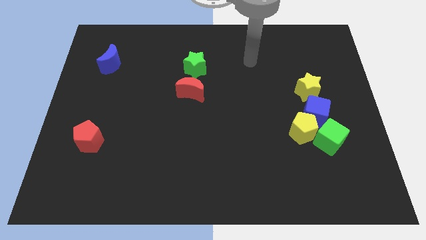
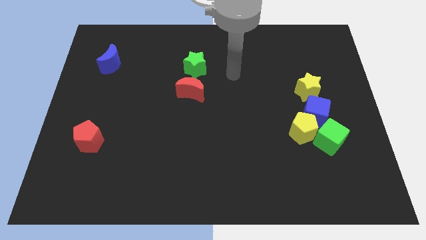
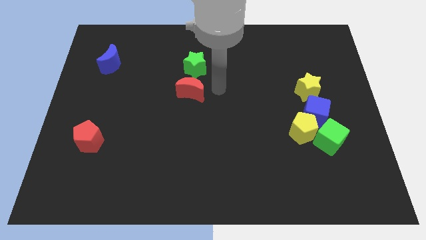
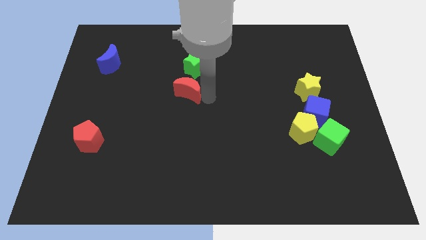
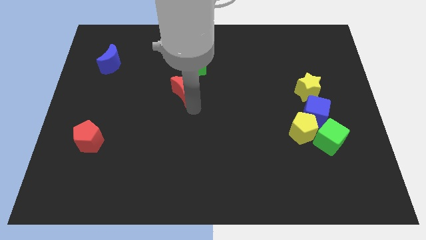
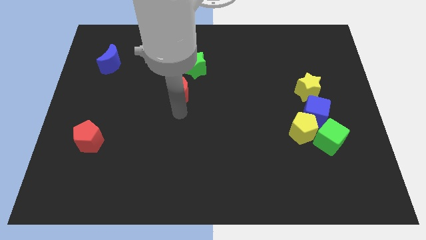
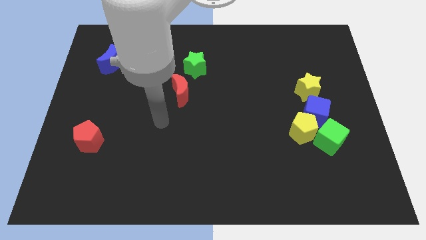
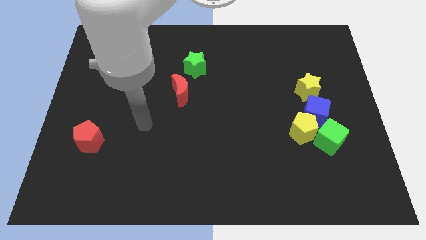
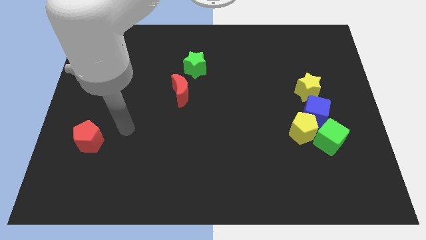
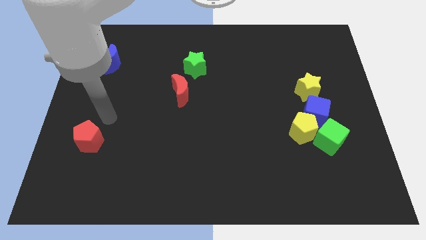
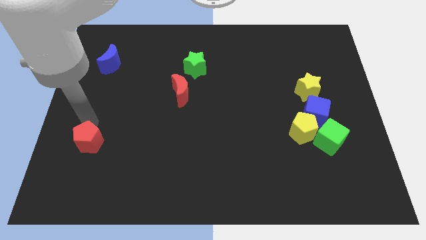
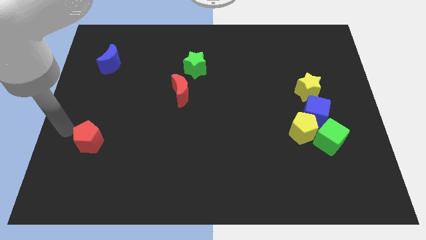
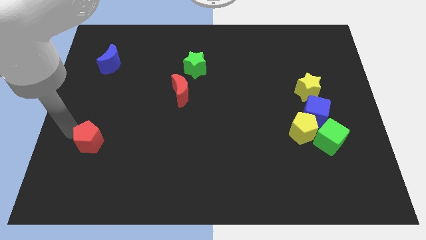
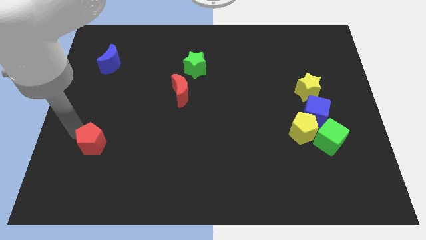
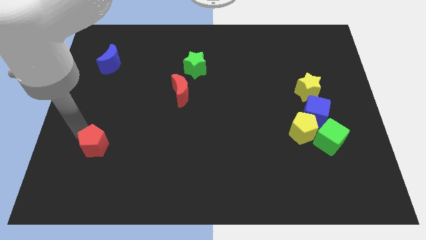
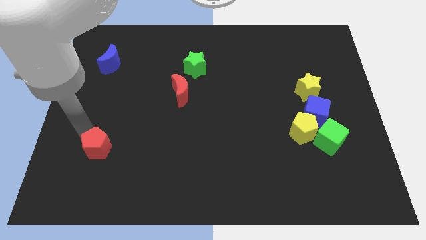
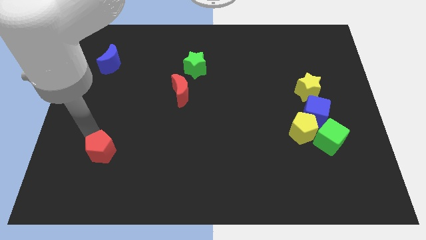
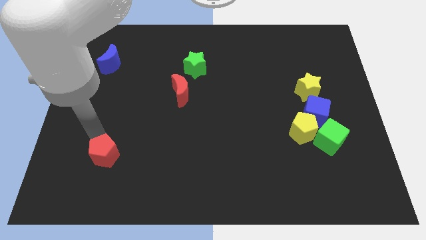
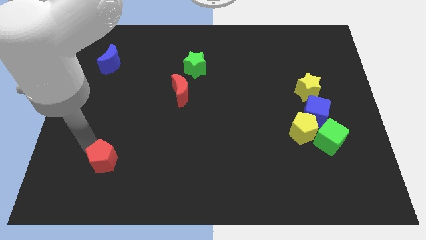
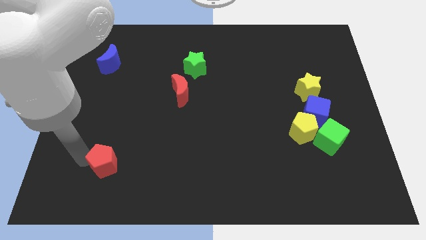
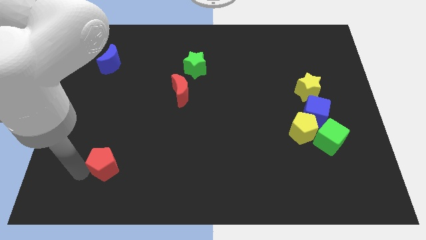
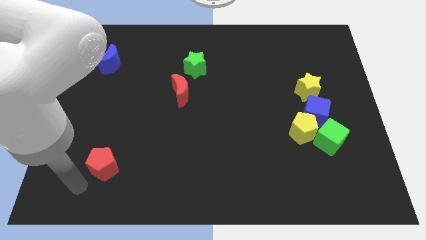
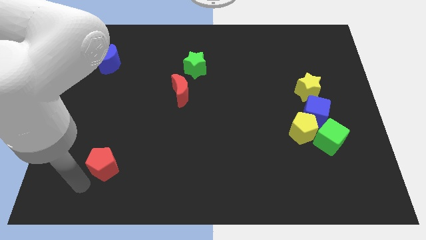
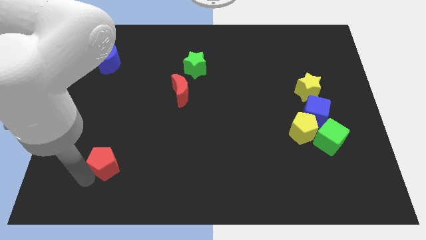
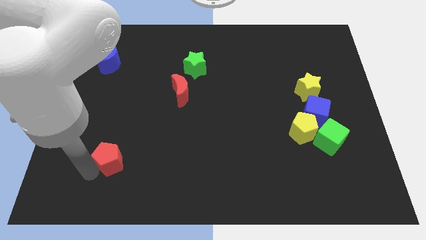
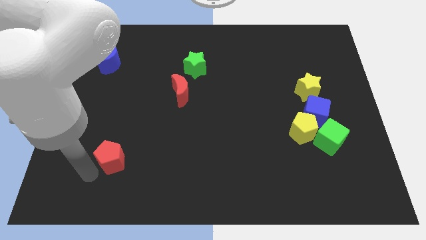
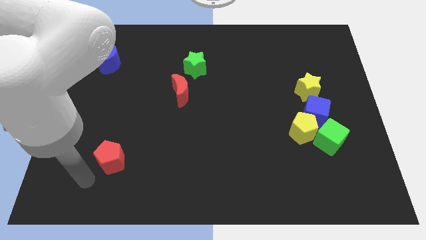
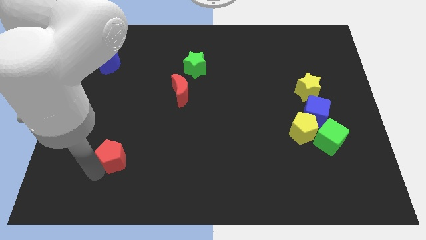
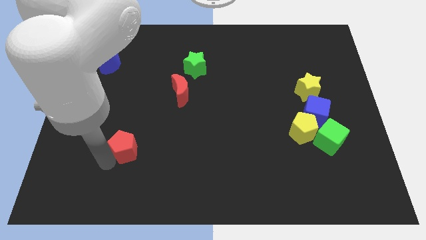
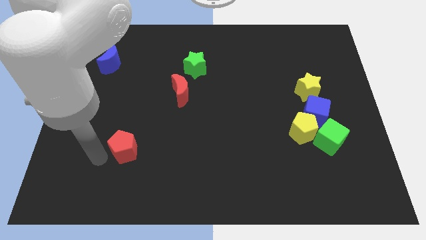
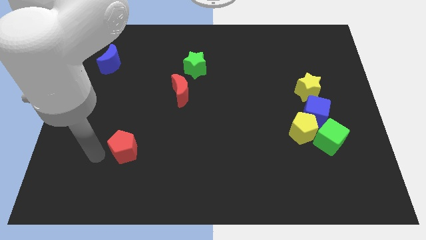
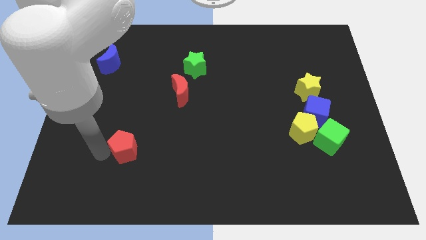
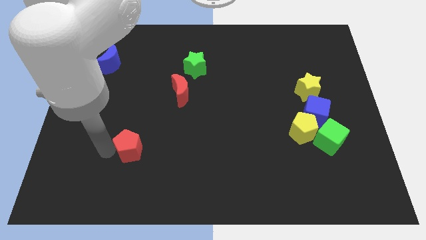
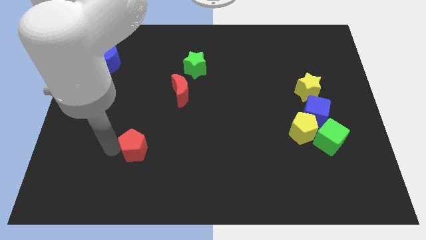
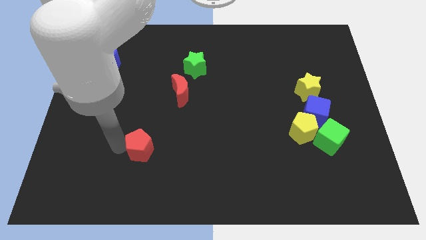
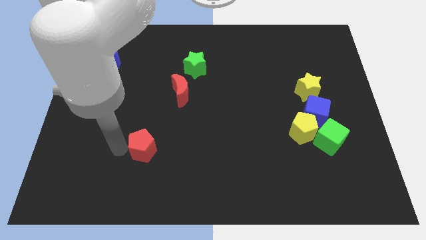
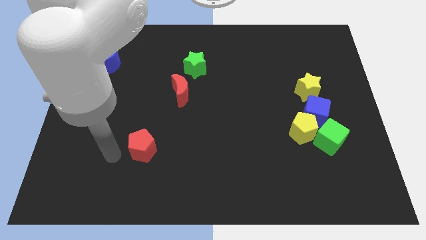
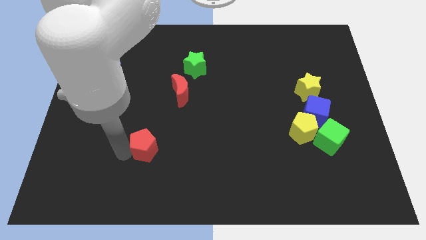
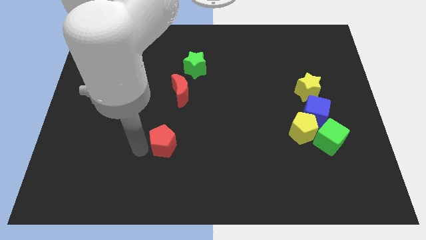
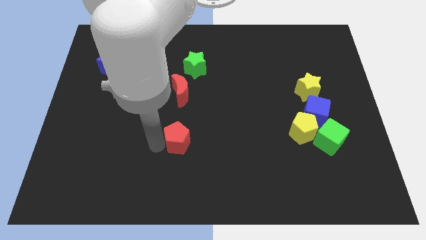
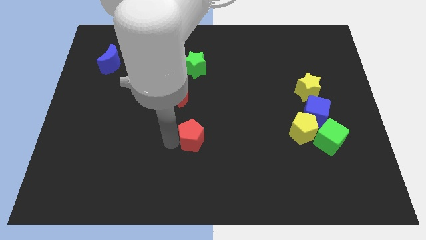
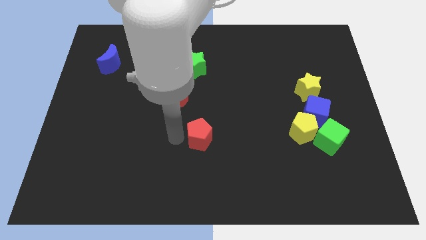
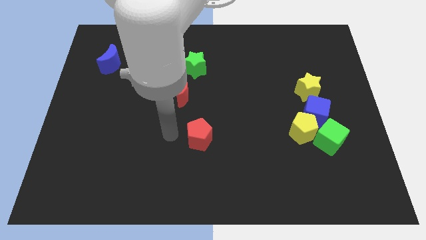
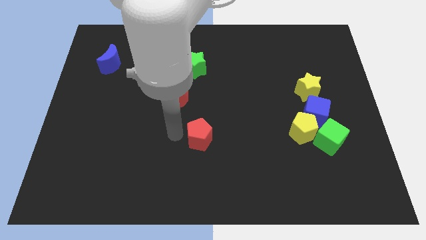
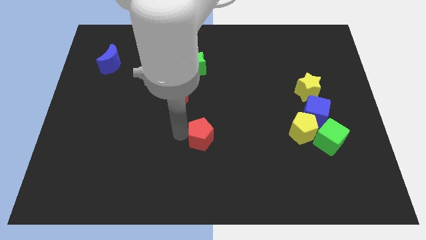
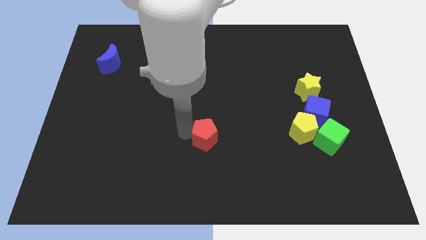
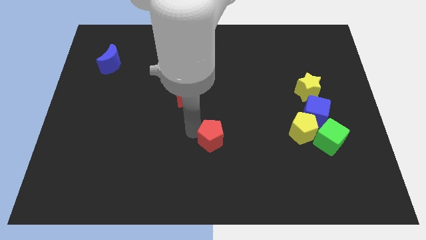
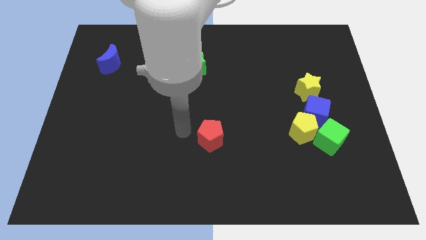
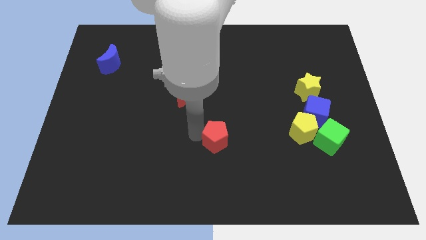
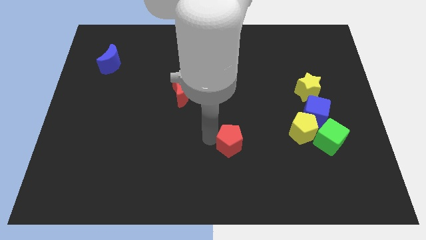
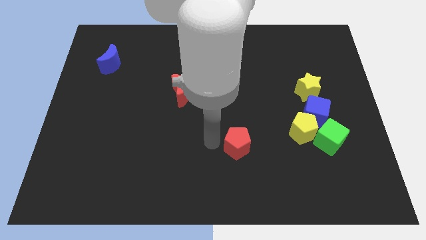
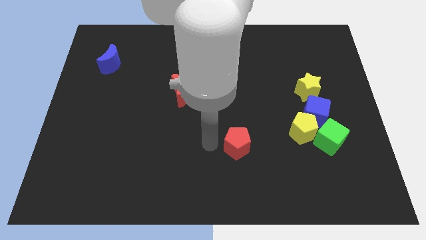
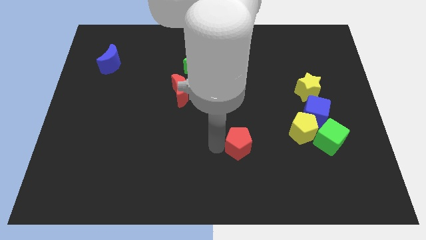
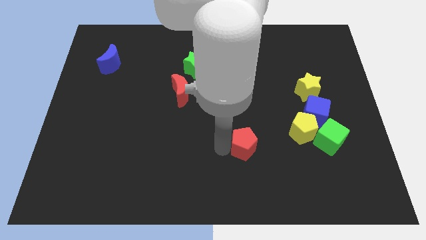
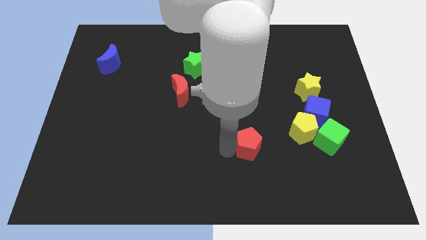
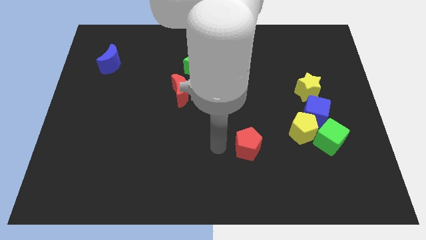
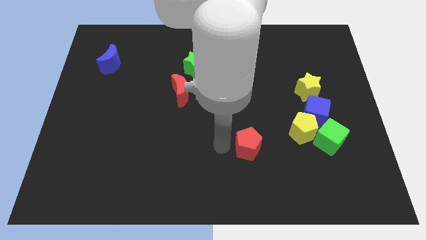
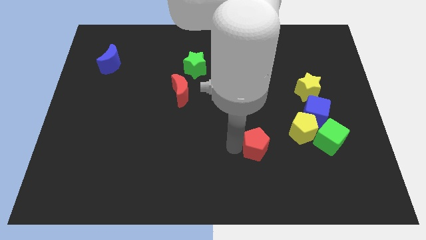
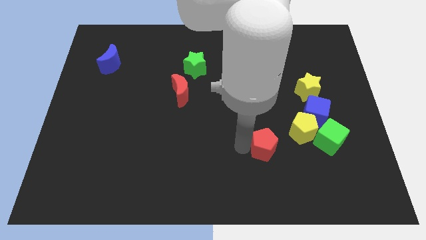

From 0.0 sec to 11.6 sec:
slide the red pentagon diagonally down and to the left of the yellow pentagon

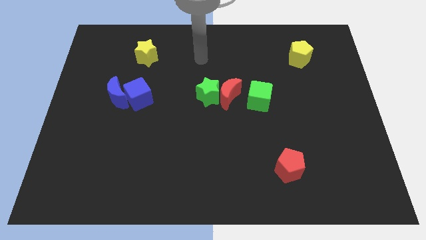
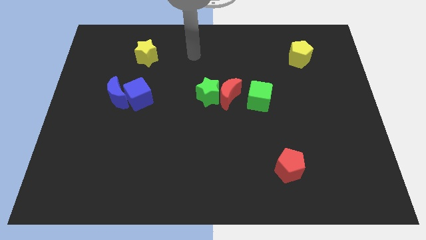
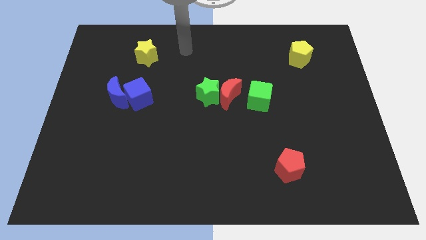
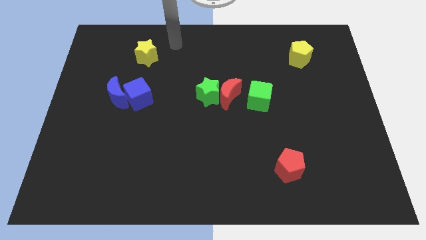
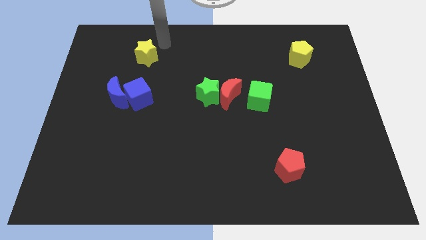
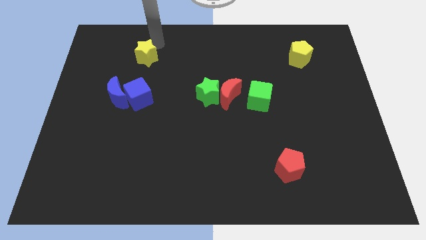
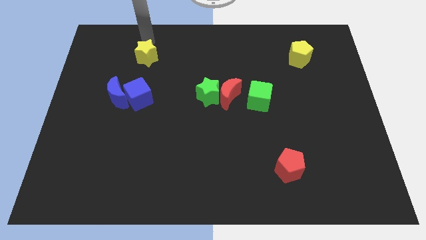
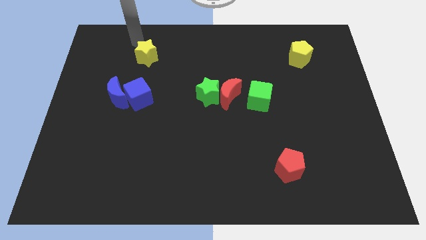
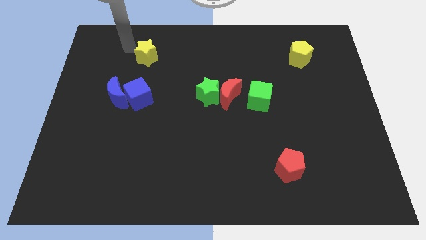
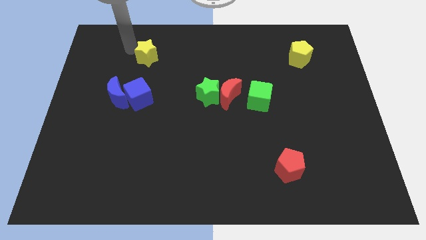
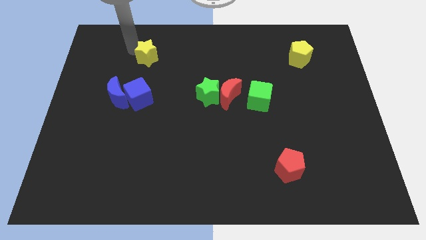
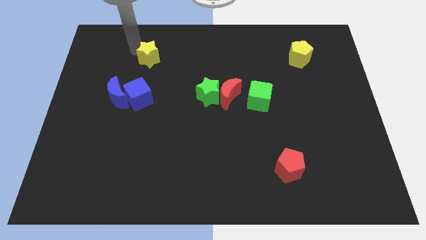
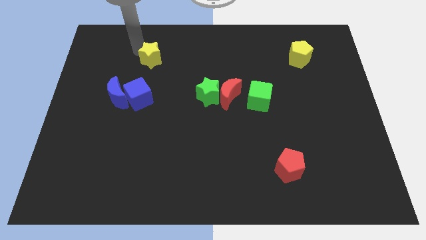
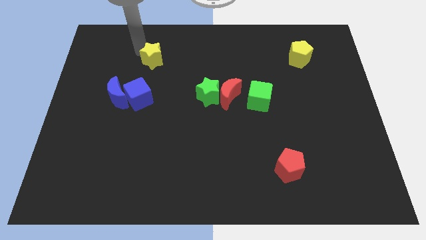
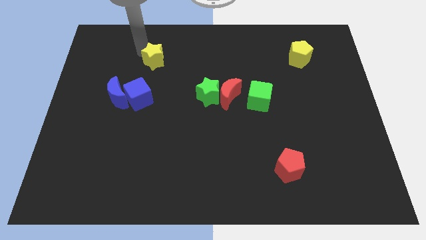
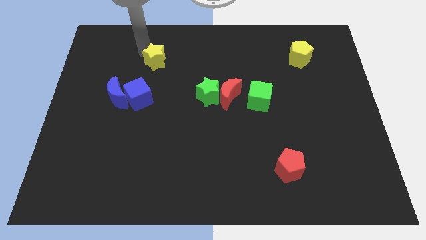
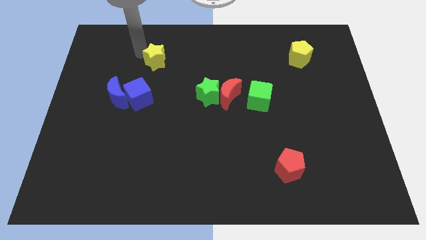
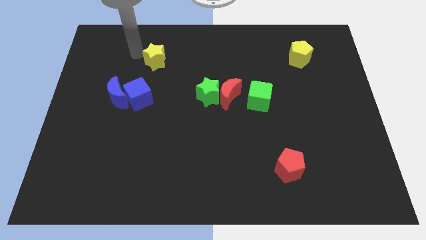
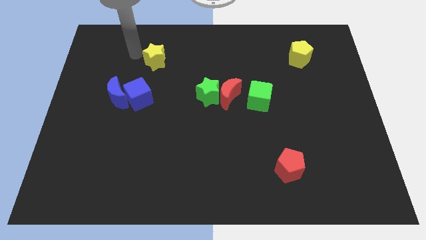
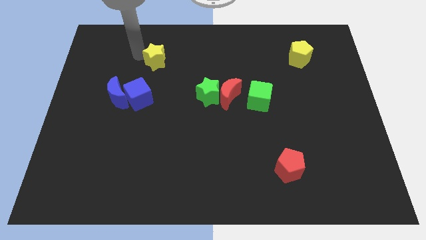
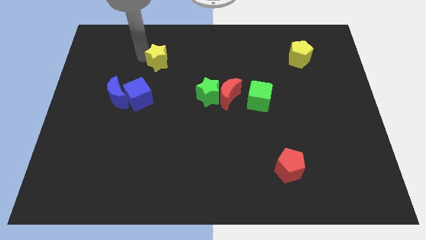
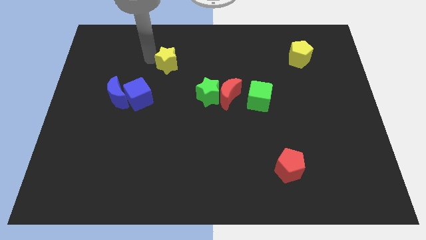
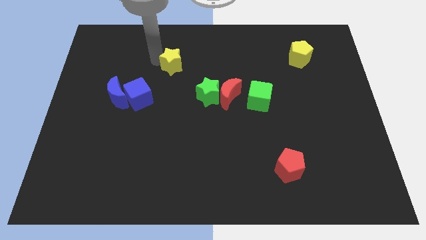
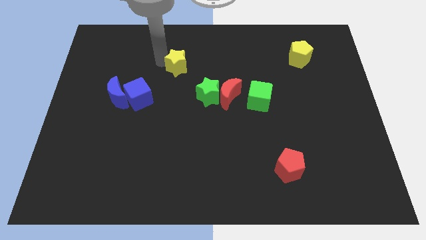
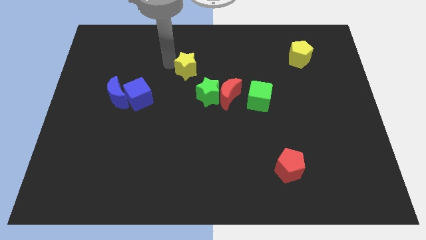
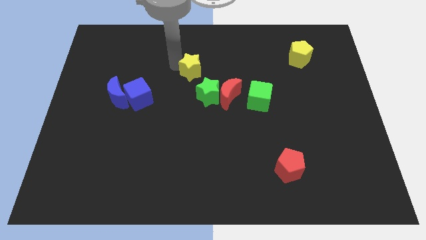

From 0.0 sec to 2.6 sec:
slide the yellow star diagonally up and to the left of the red moon
